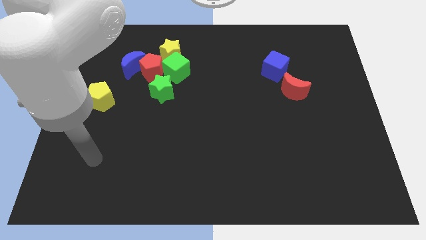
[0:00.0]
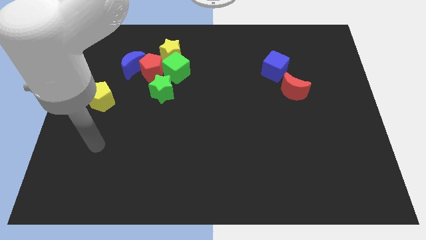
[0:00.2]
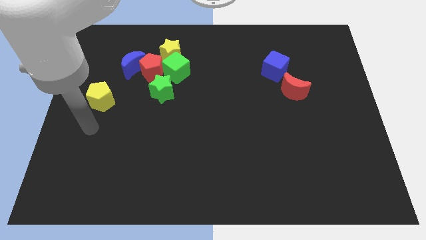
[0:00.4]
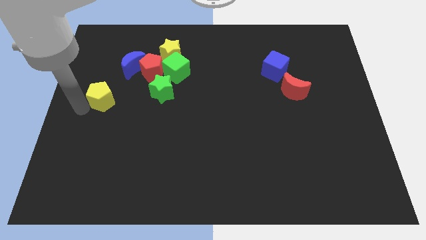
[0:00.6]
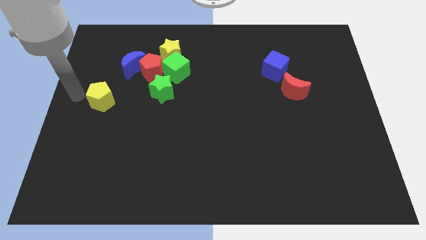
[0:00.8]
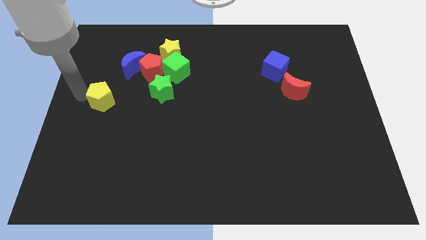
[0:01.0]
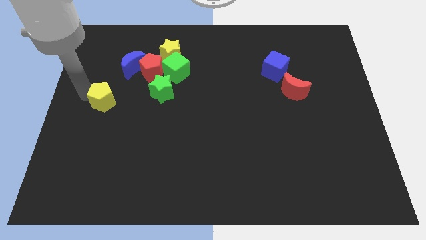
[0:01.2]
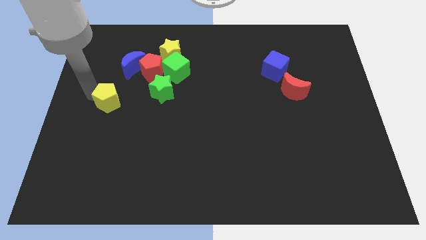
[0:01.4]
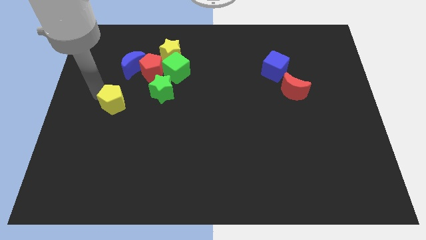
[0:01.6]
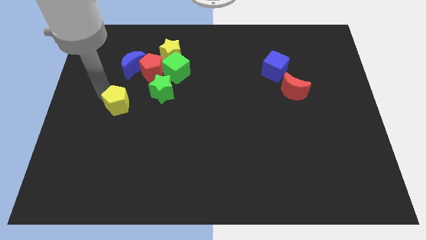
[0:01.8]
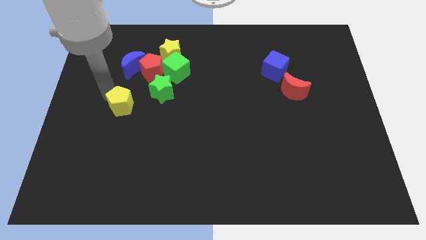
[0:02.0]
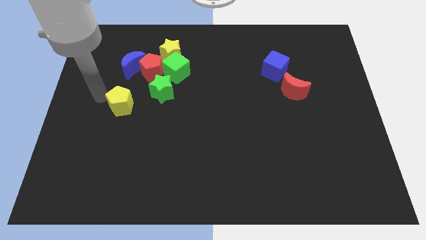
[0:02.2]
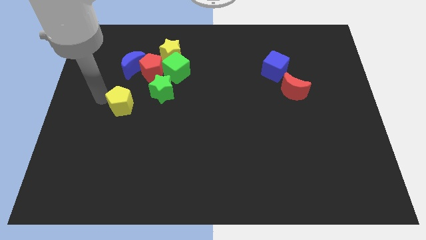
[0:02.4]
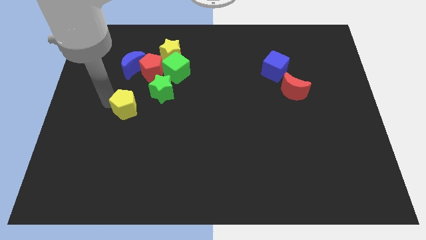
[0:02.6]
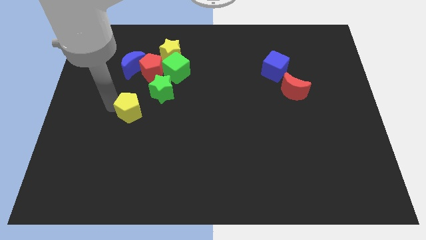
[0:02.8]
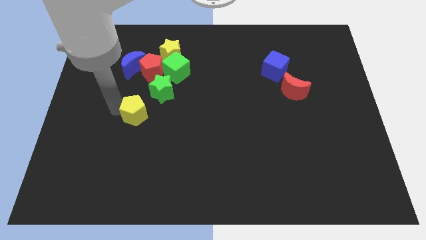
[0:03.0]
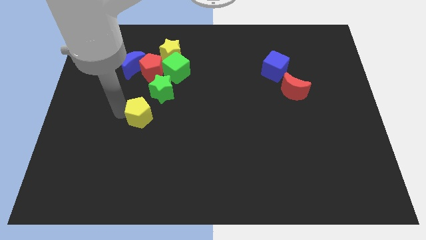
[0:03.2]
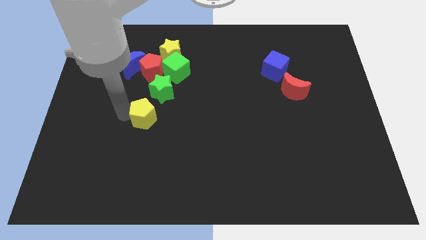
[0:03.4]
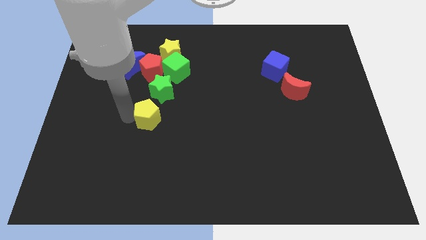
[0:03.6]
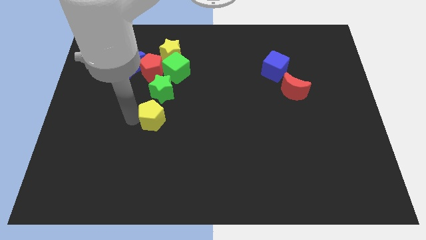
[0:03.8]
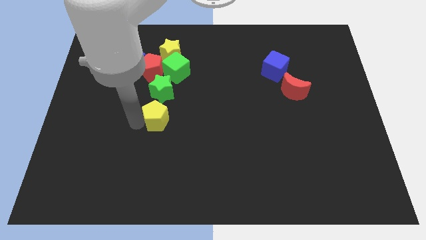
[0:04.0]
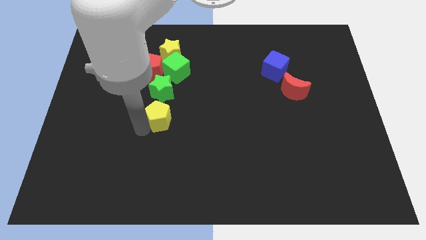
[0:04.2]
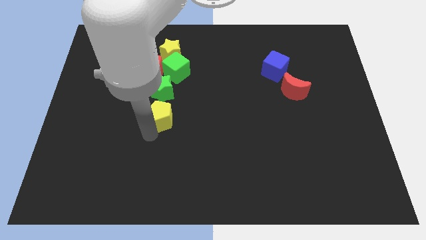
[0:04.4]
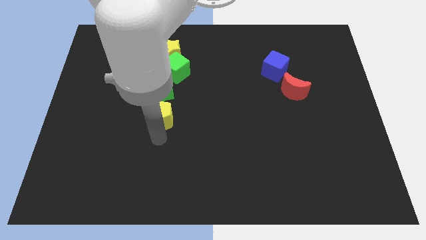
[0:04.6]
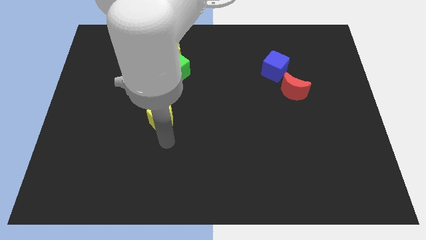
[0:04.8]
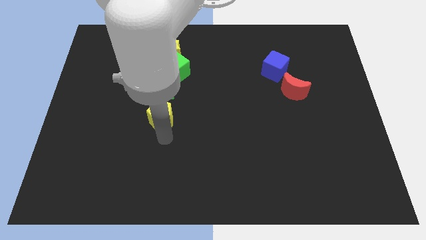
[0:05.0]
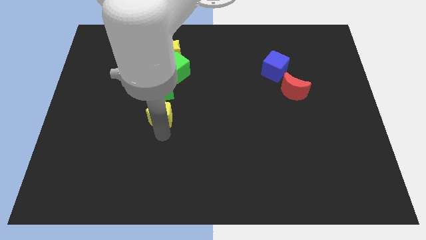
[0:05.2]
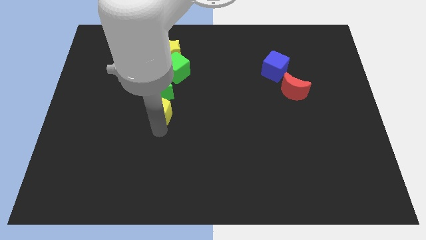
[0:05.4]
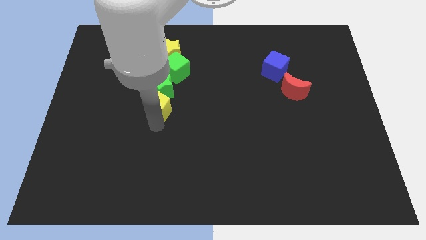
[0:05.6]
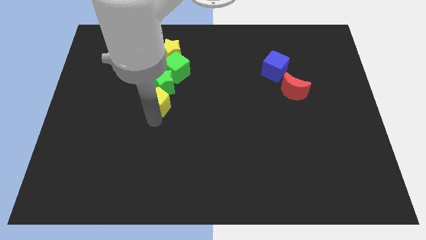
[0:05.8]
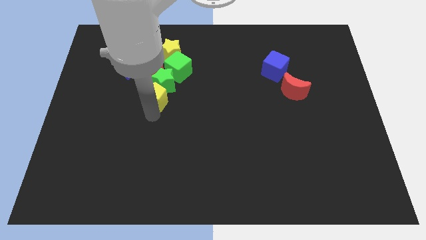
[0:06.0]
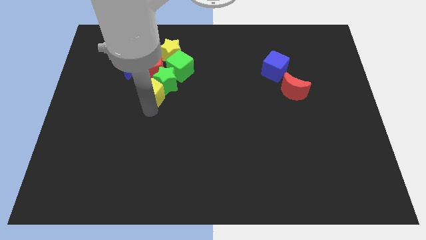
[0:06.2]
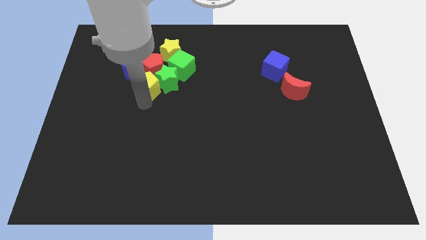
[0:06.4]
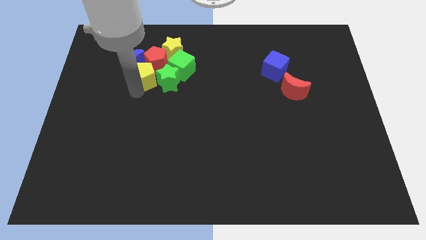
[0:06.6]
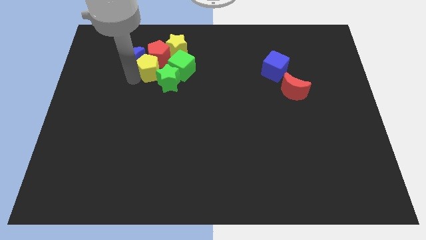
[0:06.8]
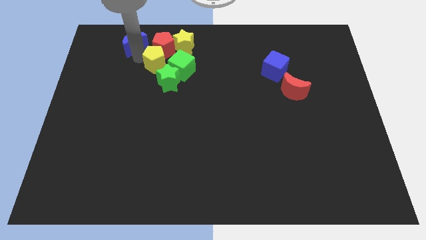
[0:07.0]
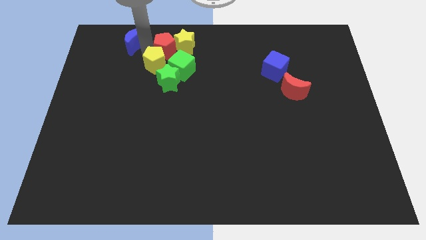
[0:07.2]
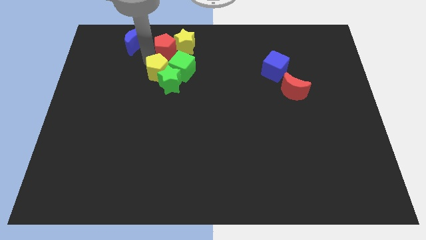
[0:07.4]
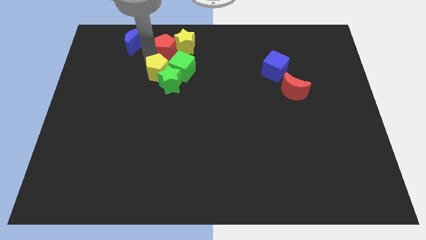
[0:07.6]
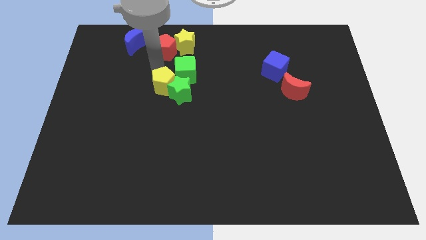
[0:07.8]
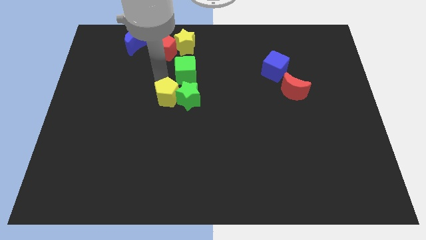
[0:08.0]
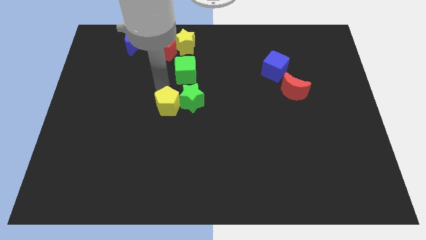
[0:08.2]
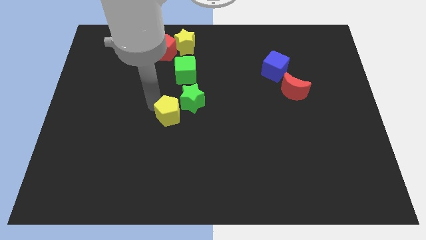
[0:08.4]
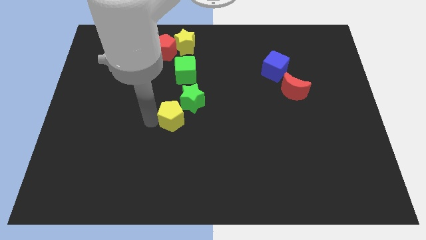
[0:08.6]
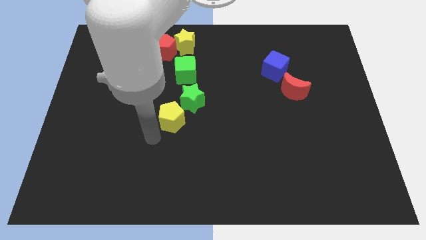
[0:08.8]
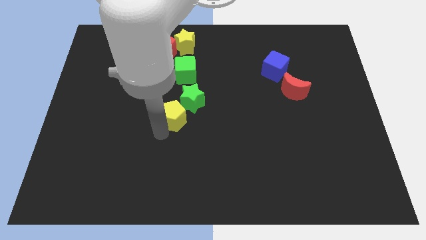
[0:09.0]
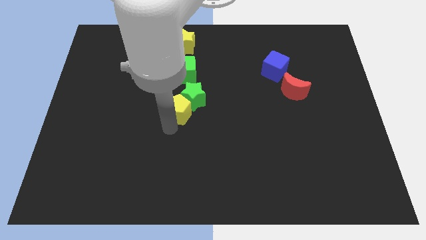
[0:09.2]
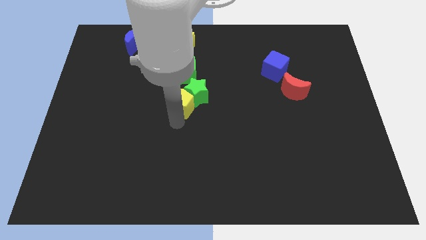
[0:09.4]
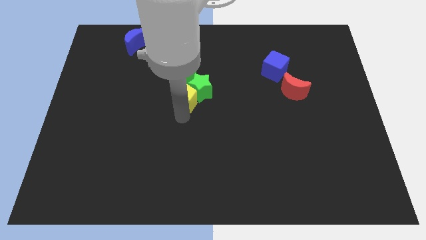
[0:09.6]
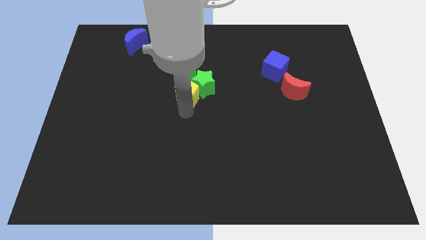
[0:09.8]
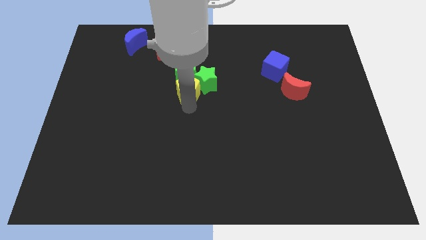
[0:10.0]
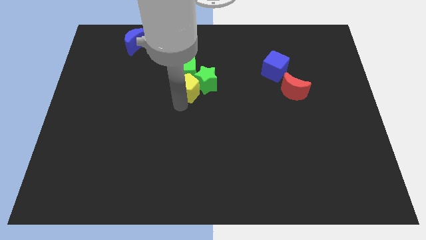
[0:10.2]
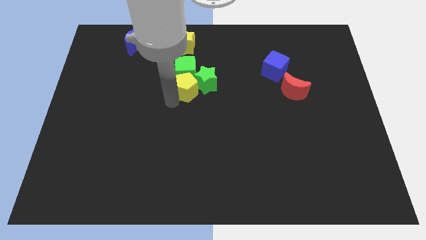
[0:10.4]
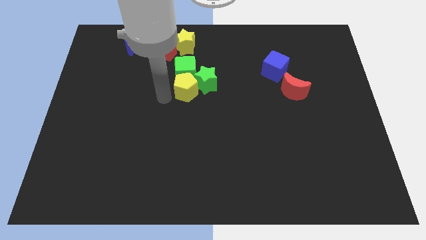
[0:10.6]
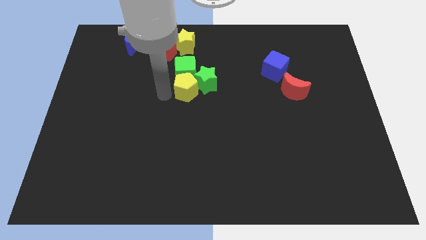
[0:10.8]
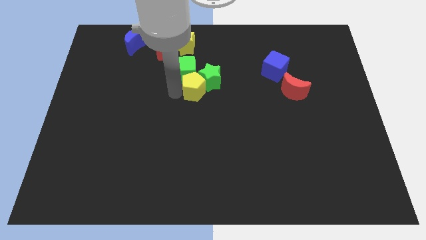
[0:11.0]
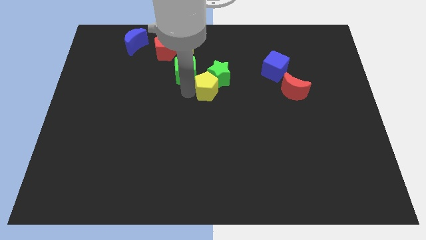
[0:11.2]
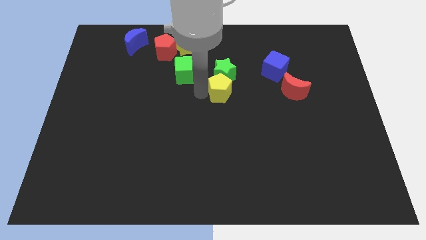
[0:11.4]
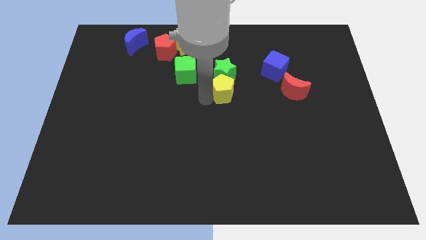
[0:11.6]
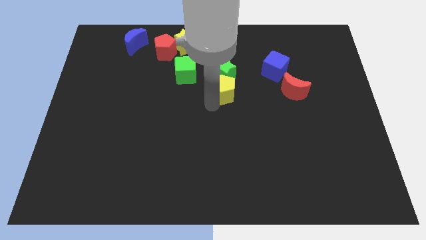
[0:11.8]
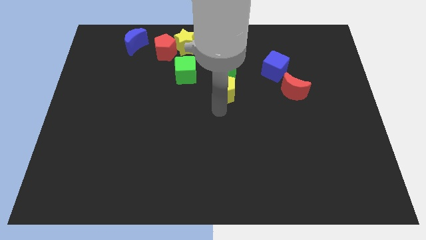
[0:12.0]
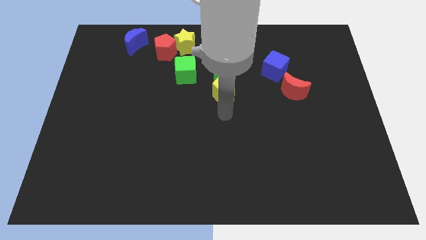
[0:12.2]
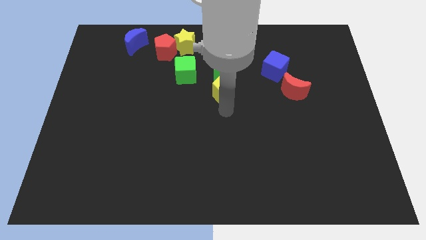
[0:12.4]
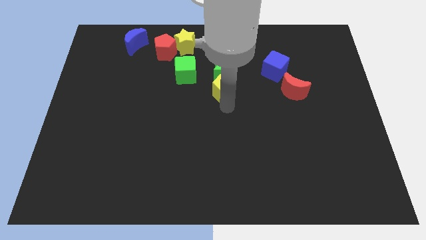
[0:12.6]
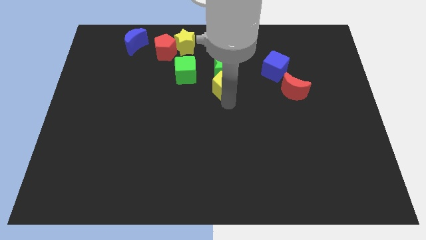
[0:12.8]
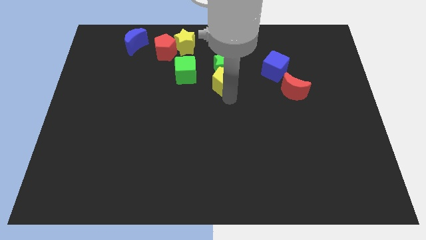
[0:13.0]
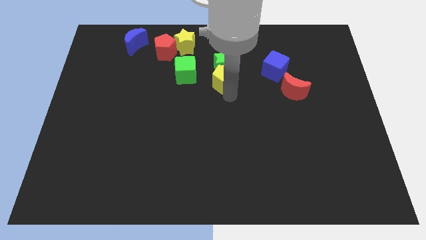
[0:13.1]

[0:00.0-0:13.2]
push the yellow pentagon to the left side of the blue cube

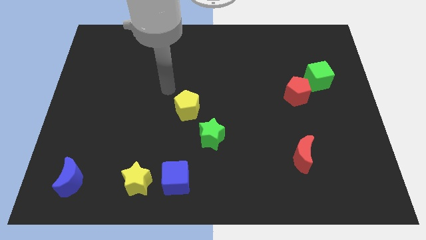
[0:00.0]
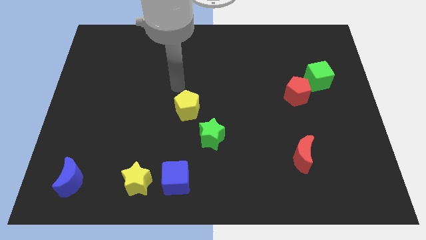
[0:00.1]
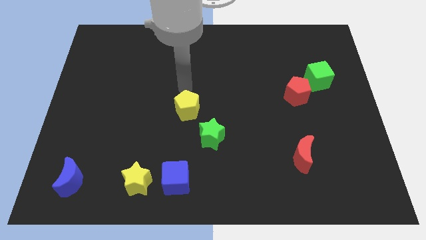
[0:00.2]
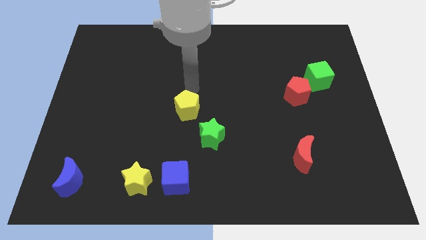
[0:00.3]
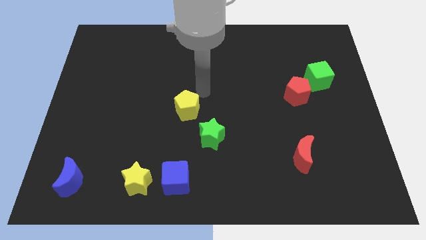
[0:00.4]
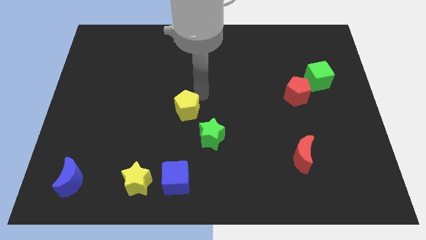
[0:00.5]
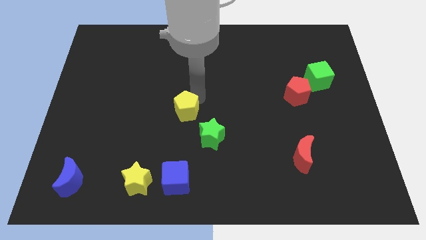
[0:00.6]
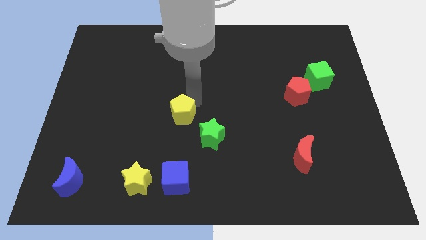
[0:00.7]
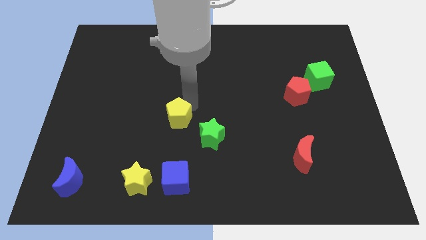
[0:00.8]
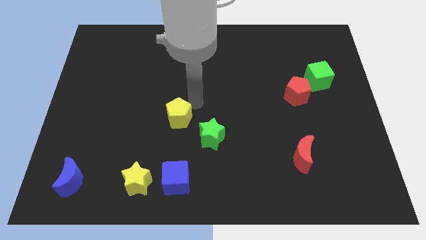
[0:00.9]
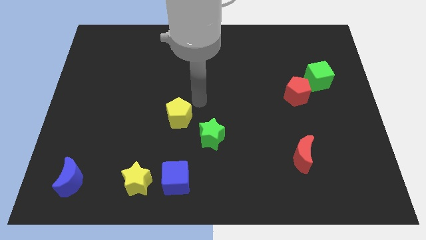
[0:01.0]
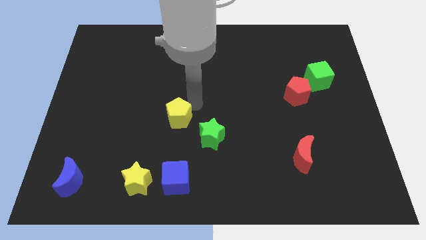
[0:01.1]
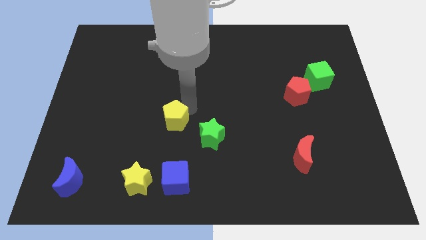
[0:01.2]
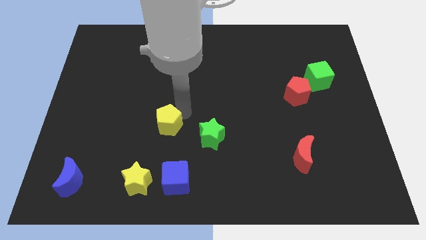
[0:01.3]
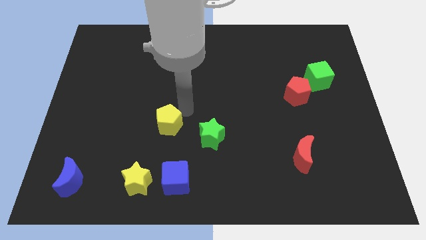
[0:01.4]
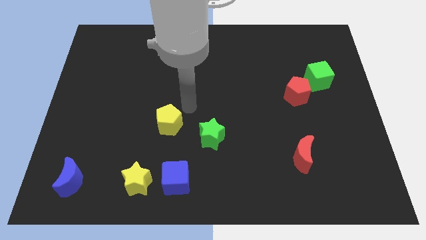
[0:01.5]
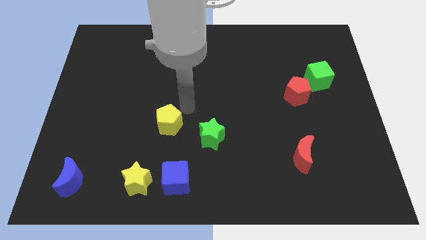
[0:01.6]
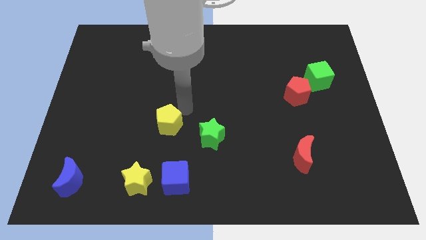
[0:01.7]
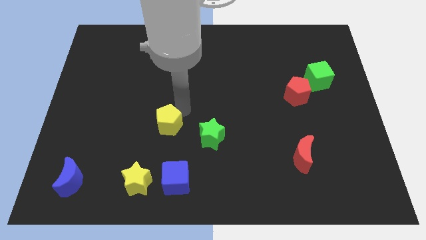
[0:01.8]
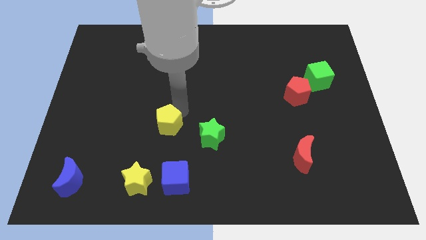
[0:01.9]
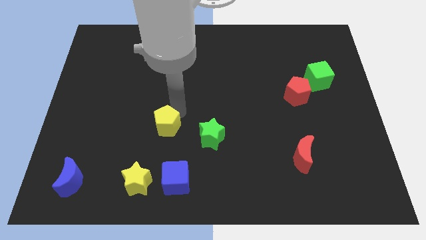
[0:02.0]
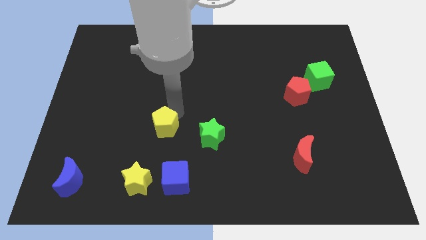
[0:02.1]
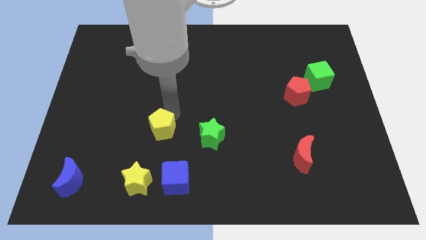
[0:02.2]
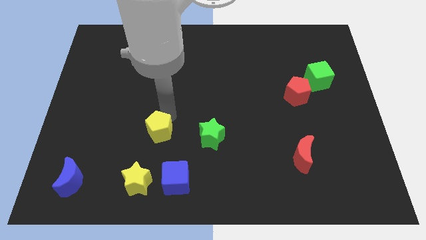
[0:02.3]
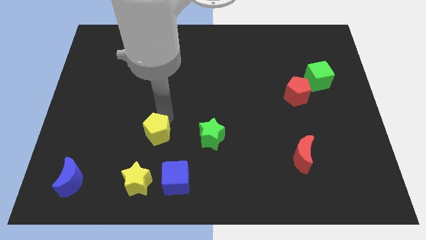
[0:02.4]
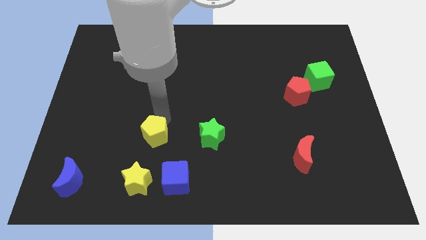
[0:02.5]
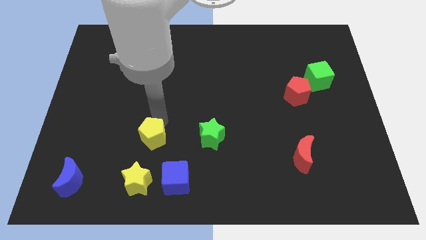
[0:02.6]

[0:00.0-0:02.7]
put the yellow pentagon diagonally up and to the left of the blue cube
